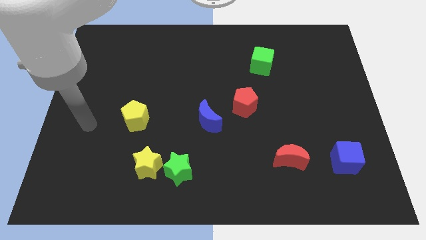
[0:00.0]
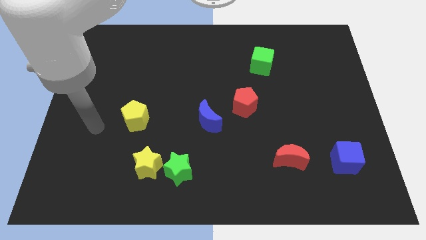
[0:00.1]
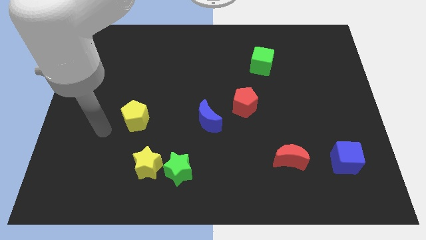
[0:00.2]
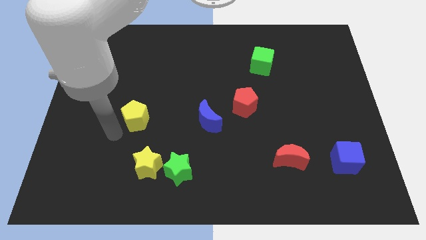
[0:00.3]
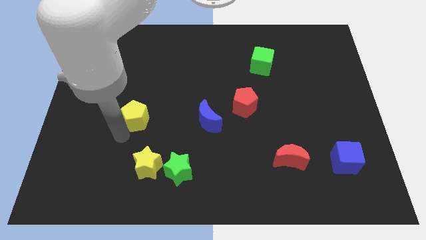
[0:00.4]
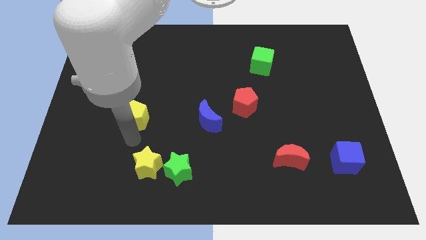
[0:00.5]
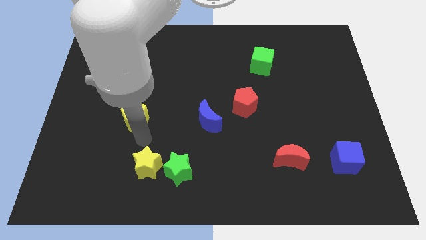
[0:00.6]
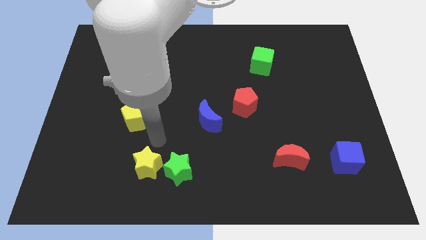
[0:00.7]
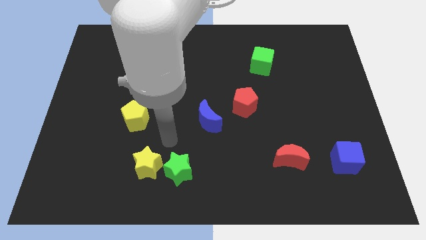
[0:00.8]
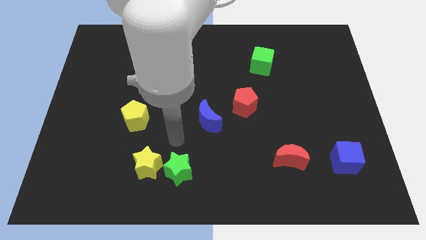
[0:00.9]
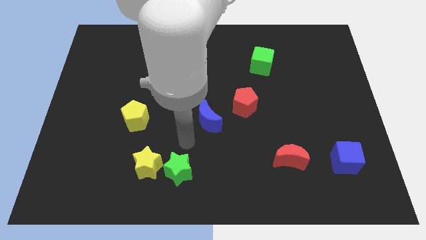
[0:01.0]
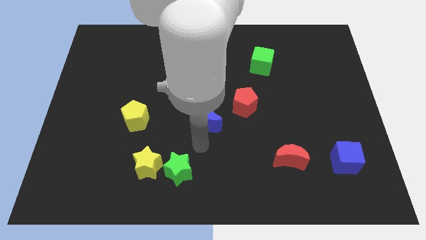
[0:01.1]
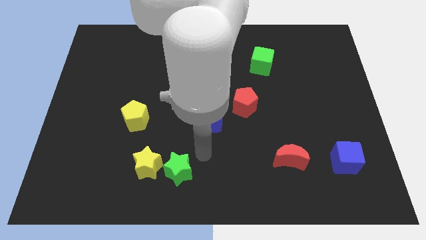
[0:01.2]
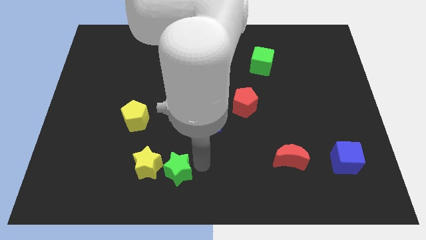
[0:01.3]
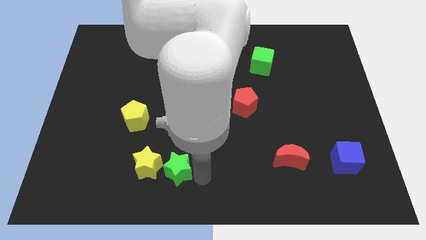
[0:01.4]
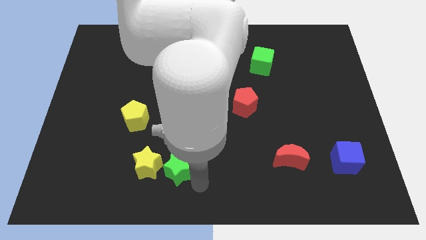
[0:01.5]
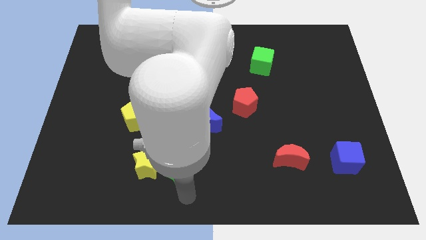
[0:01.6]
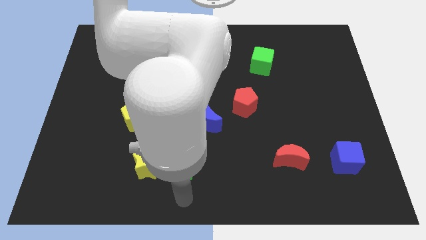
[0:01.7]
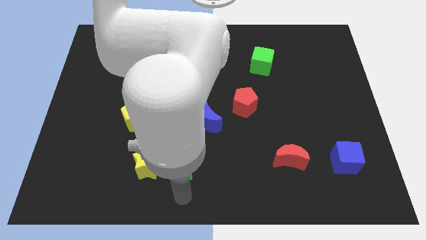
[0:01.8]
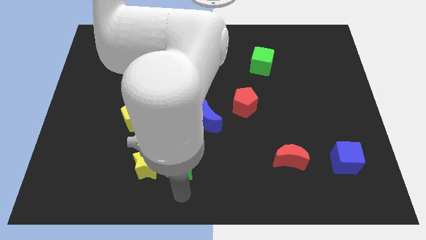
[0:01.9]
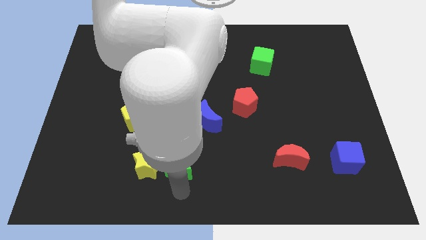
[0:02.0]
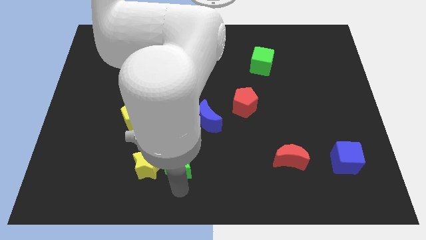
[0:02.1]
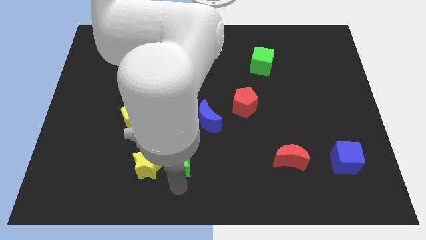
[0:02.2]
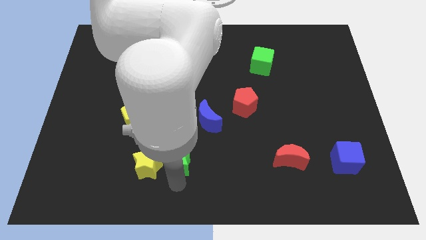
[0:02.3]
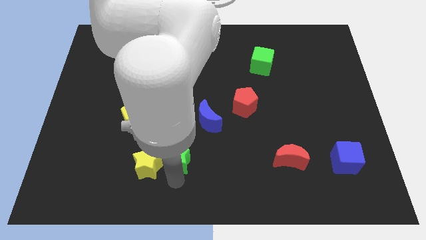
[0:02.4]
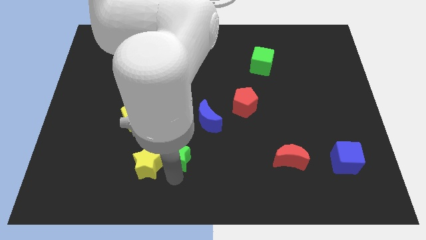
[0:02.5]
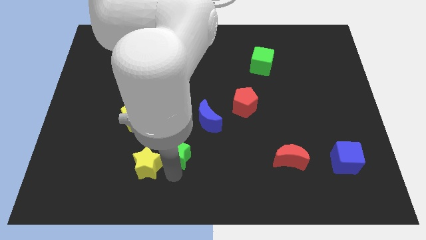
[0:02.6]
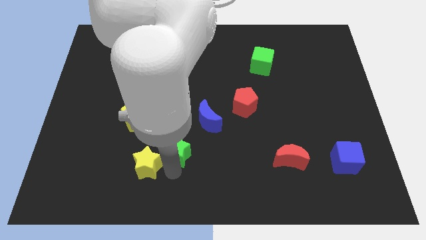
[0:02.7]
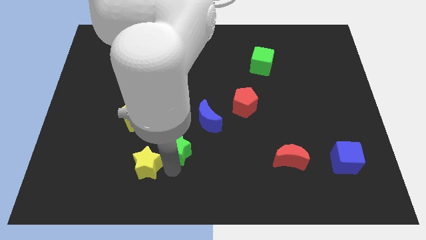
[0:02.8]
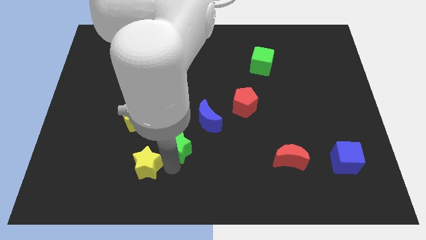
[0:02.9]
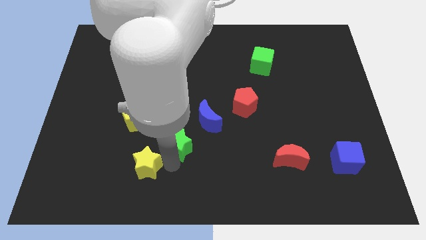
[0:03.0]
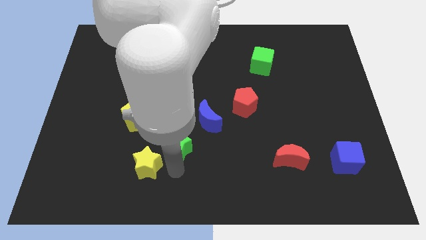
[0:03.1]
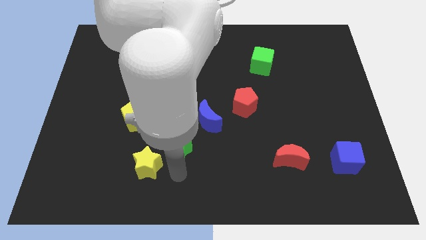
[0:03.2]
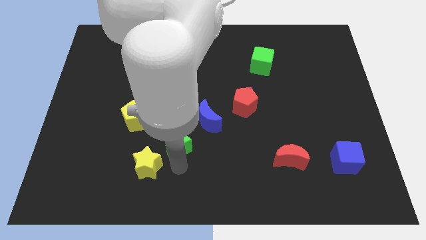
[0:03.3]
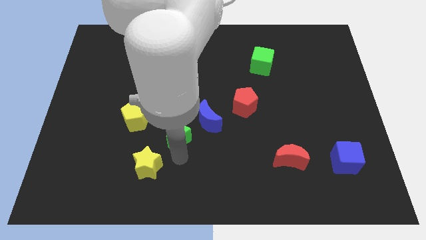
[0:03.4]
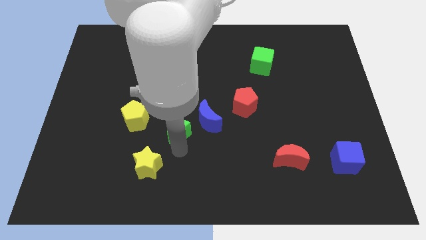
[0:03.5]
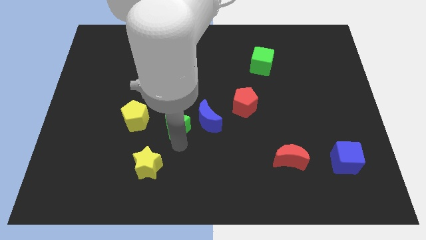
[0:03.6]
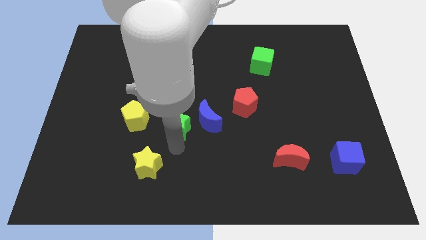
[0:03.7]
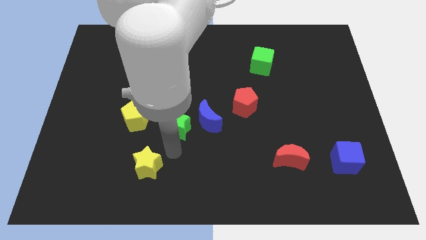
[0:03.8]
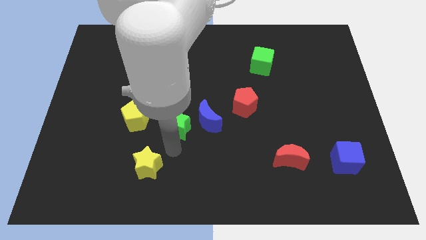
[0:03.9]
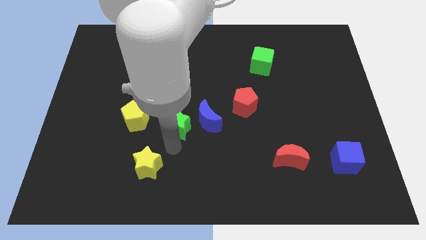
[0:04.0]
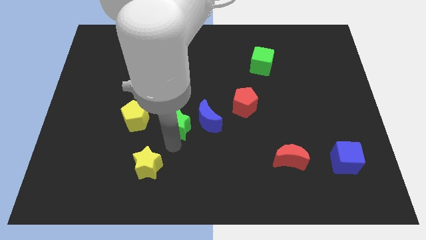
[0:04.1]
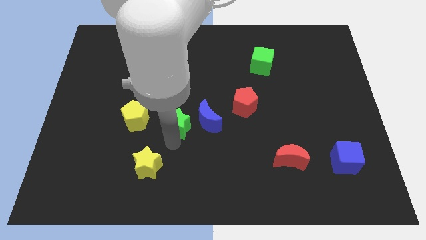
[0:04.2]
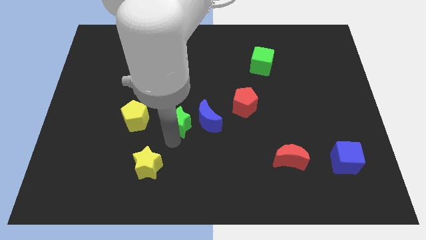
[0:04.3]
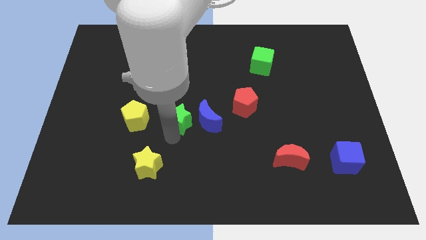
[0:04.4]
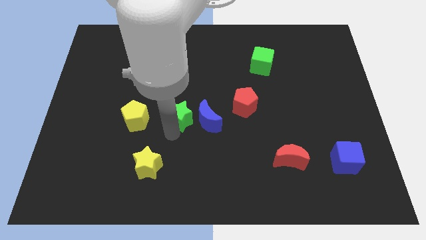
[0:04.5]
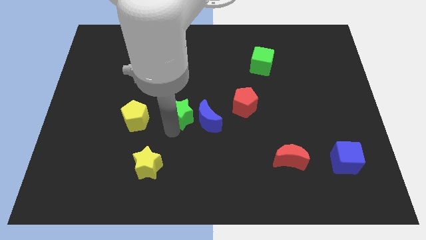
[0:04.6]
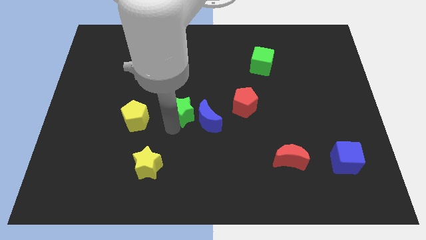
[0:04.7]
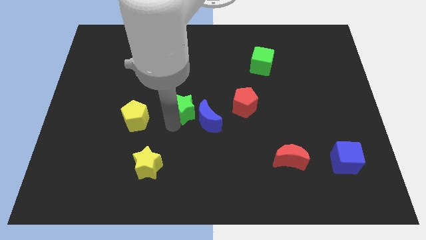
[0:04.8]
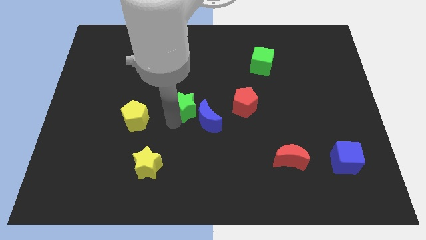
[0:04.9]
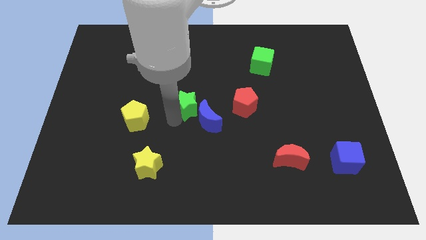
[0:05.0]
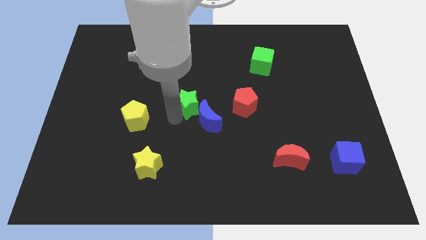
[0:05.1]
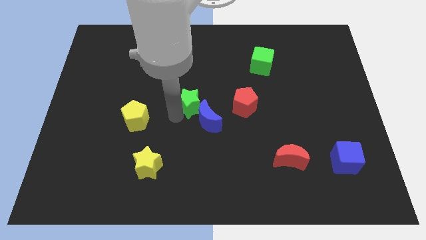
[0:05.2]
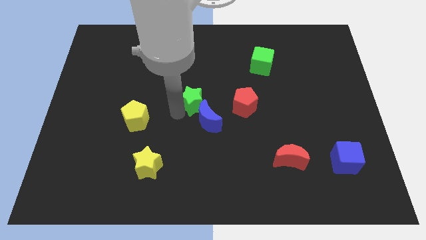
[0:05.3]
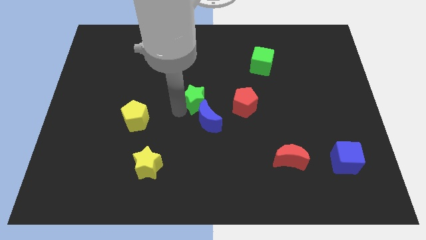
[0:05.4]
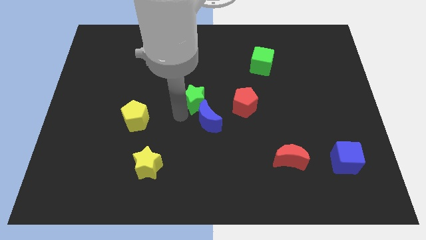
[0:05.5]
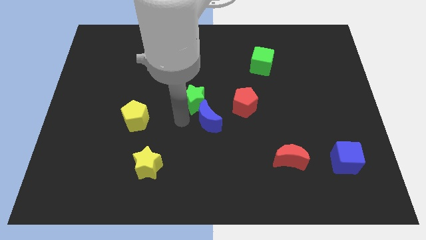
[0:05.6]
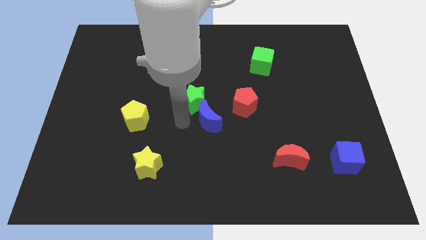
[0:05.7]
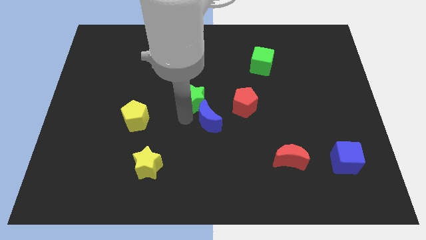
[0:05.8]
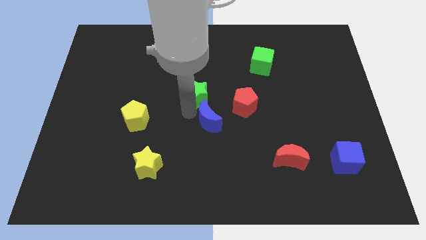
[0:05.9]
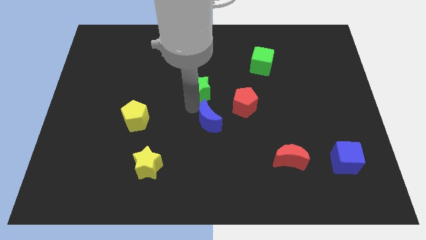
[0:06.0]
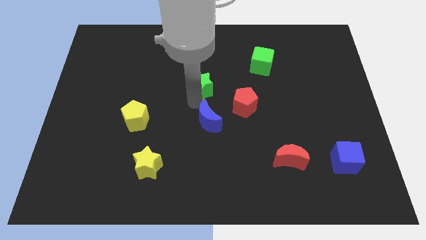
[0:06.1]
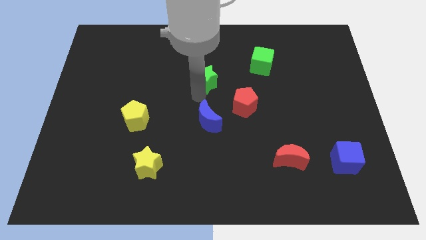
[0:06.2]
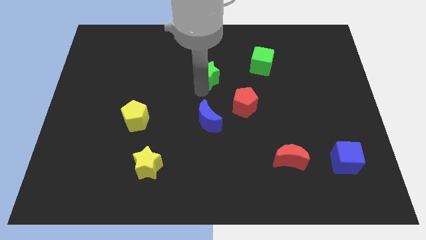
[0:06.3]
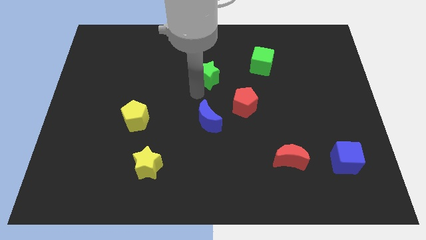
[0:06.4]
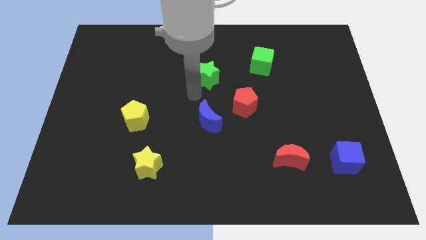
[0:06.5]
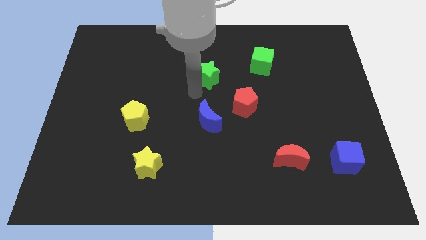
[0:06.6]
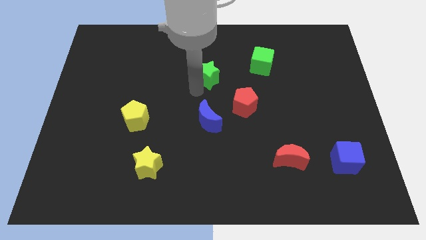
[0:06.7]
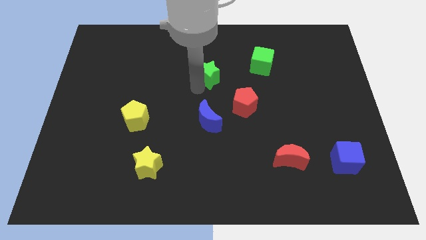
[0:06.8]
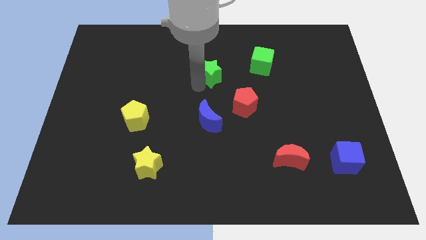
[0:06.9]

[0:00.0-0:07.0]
push the green star to the left side of the green cube

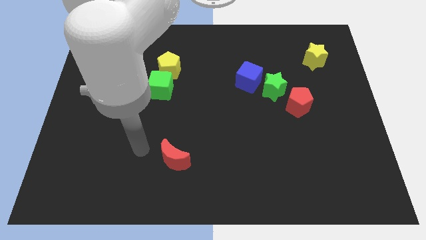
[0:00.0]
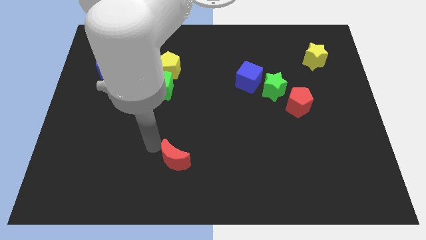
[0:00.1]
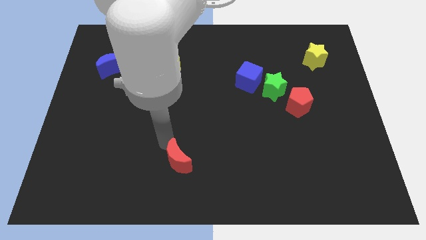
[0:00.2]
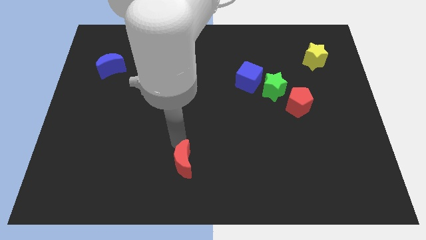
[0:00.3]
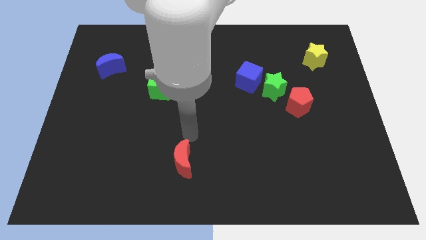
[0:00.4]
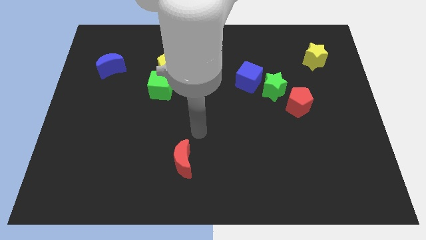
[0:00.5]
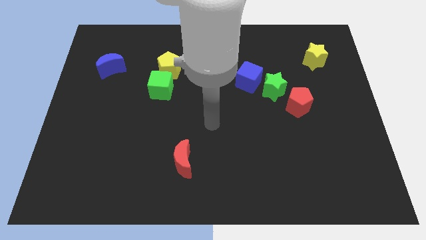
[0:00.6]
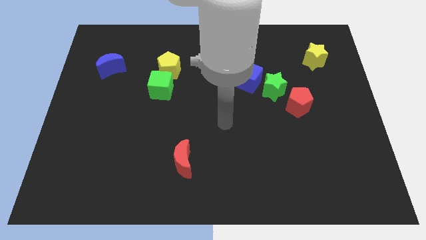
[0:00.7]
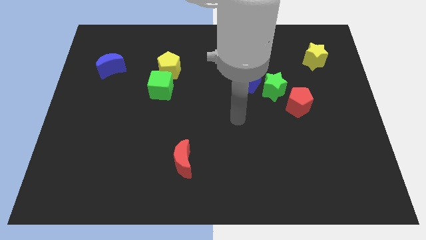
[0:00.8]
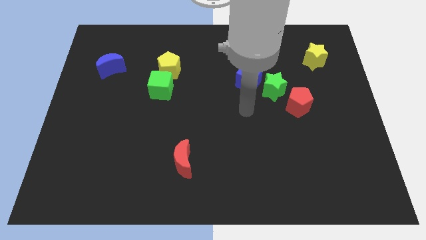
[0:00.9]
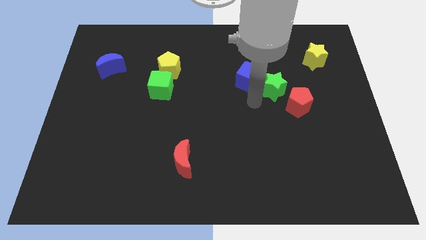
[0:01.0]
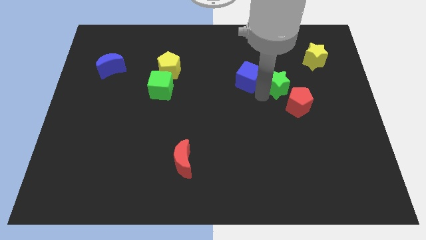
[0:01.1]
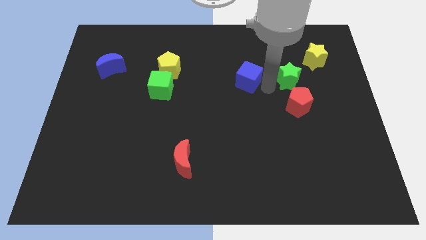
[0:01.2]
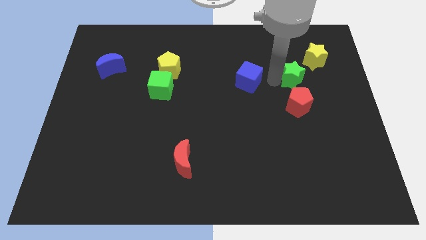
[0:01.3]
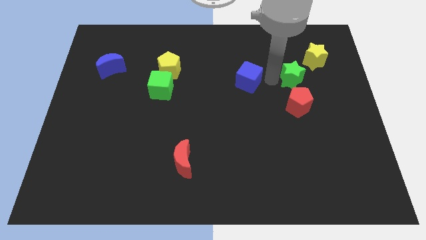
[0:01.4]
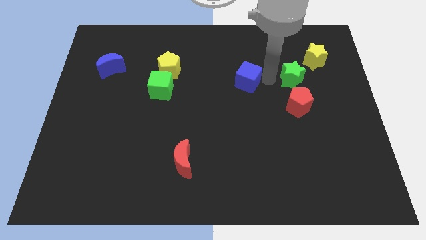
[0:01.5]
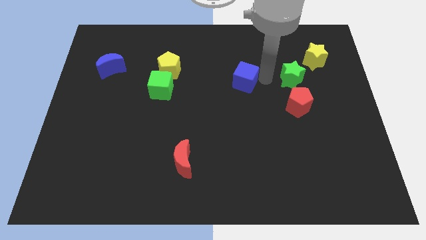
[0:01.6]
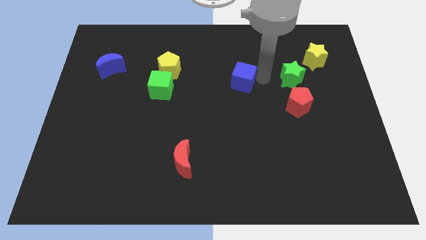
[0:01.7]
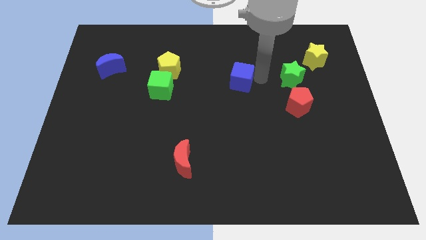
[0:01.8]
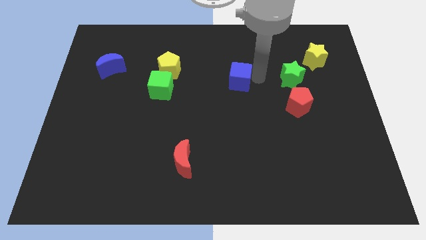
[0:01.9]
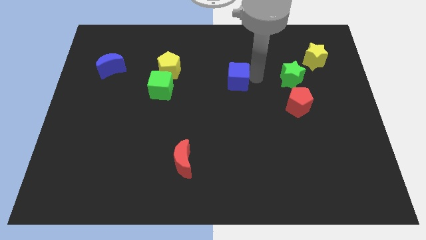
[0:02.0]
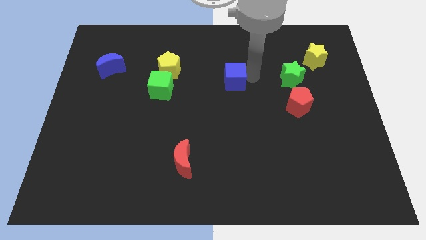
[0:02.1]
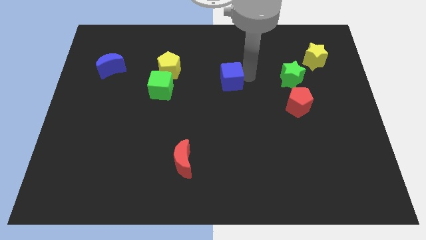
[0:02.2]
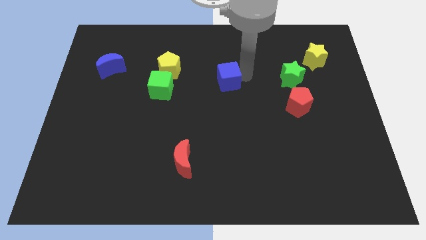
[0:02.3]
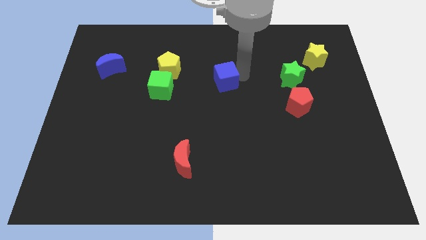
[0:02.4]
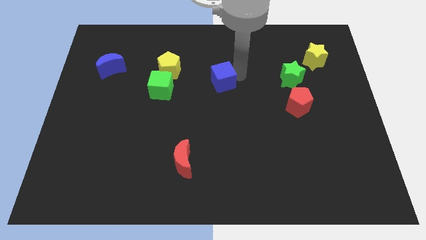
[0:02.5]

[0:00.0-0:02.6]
push the blue cube to the right side of the green cube
